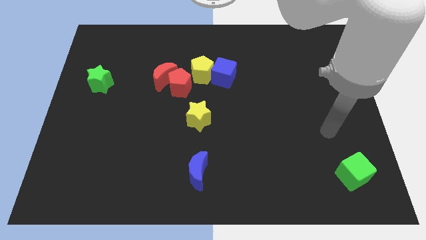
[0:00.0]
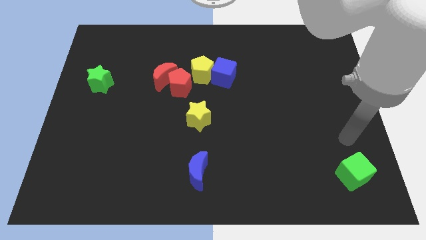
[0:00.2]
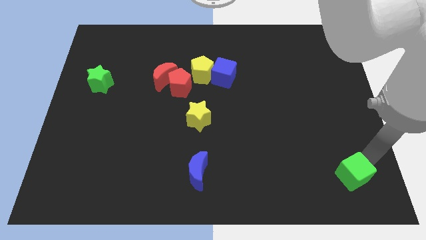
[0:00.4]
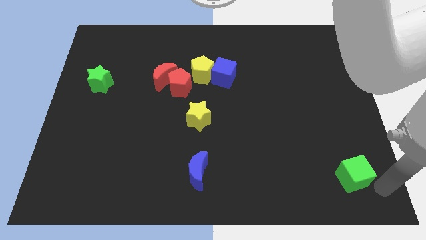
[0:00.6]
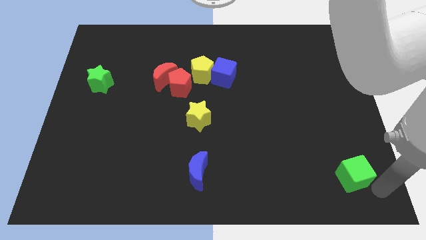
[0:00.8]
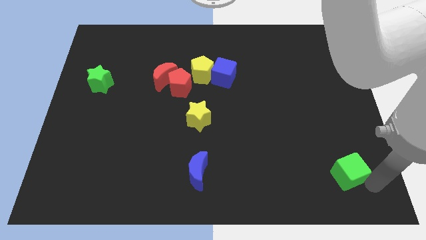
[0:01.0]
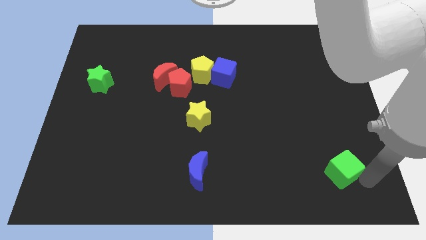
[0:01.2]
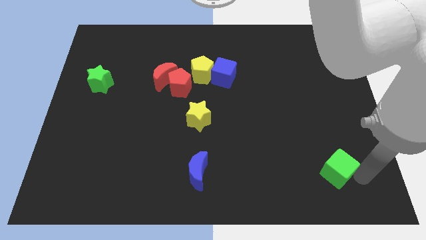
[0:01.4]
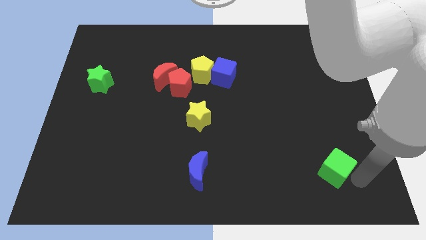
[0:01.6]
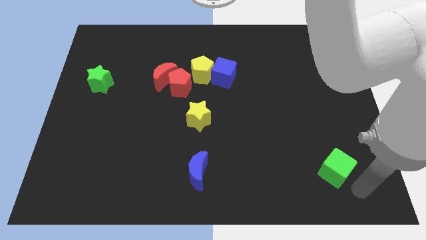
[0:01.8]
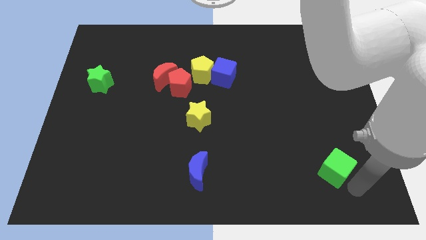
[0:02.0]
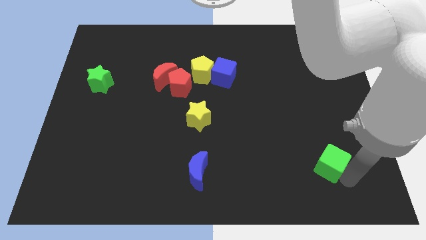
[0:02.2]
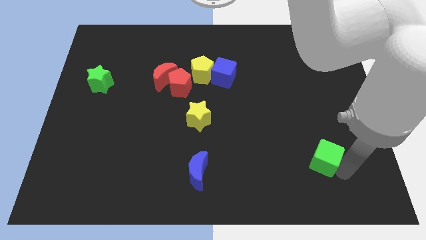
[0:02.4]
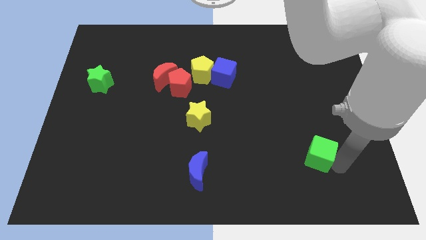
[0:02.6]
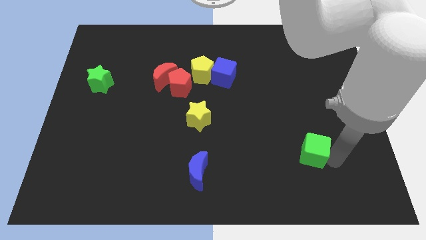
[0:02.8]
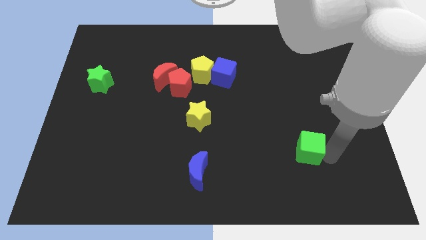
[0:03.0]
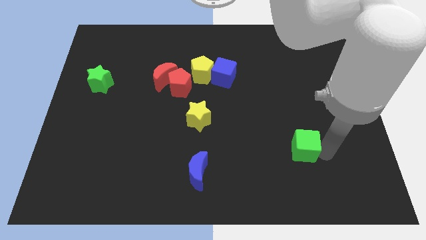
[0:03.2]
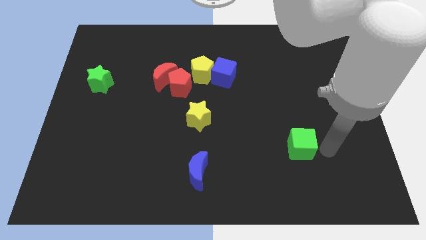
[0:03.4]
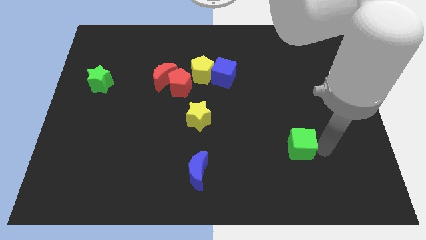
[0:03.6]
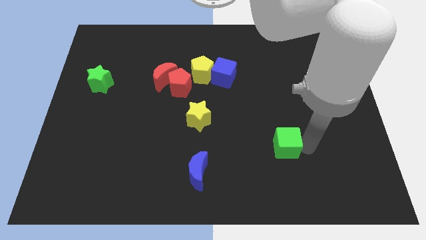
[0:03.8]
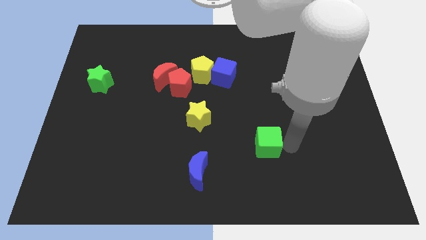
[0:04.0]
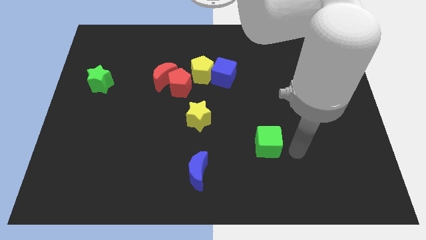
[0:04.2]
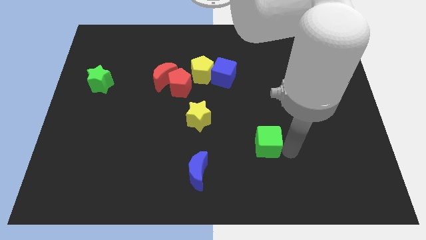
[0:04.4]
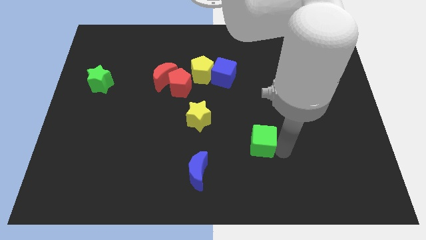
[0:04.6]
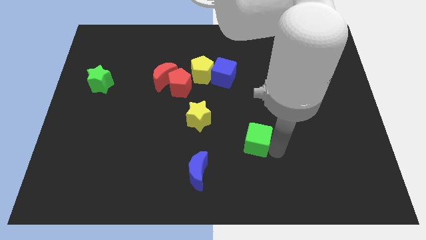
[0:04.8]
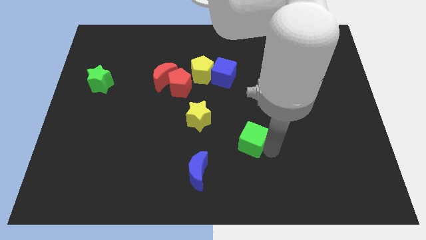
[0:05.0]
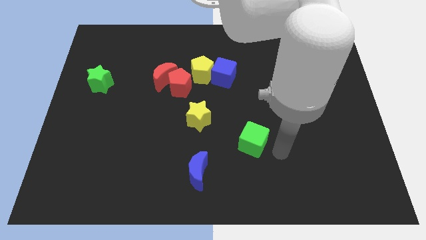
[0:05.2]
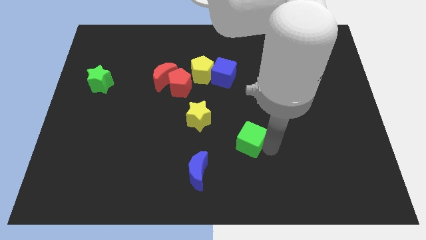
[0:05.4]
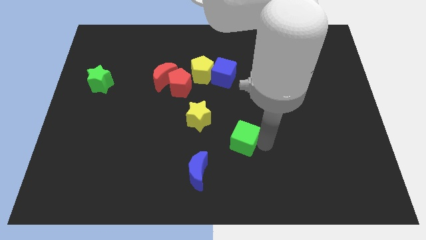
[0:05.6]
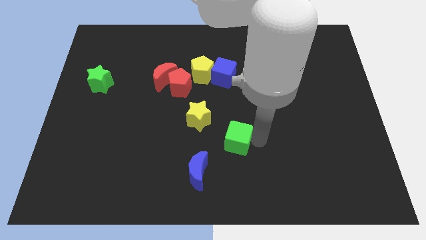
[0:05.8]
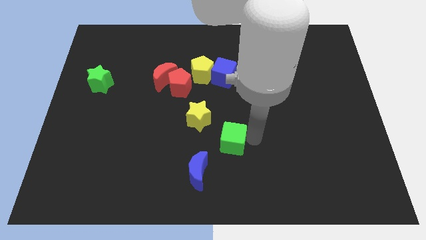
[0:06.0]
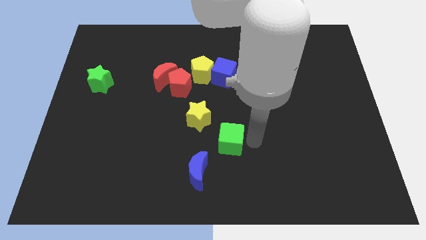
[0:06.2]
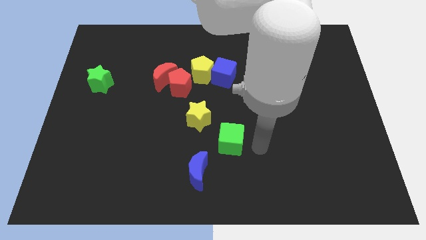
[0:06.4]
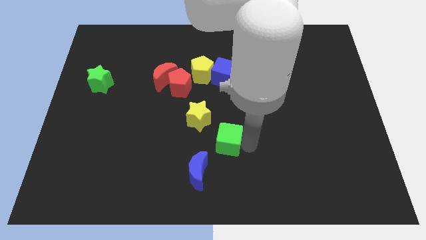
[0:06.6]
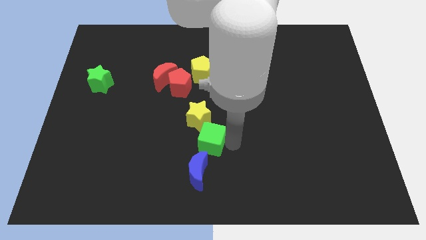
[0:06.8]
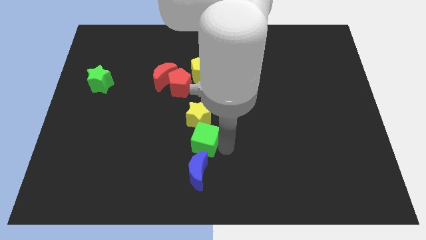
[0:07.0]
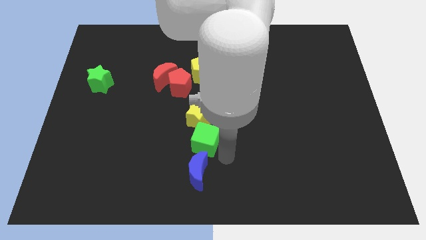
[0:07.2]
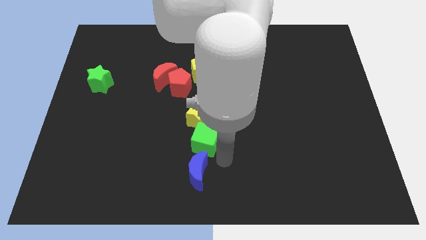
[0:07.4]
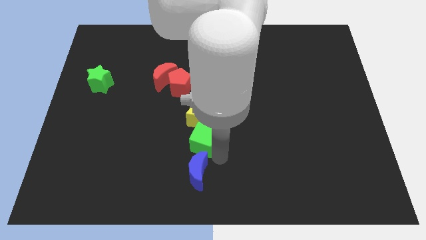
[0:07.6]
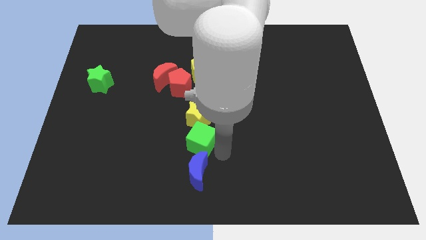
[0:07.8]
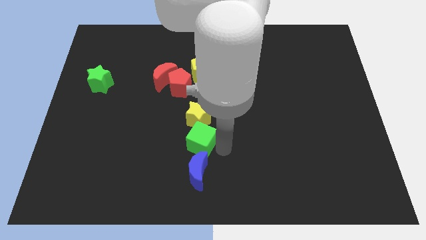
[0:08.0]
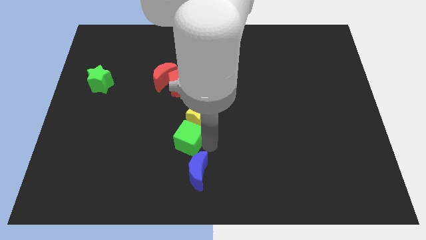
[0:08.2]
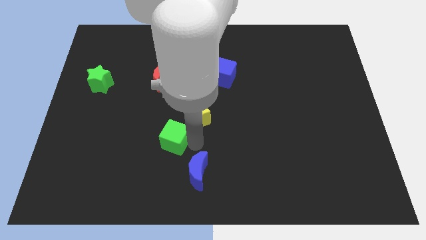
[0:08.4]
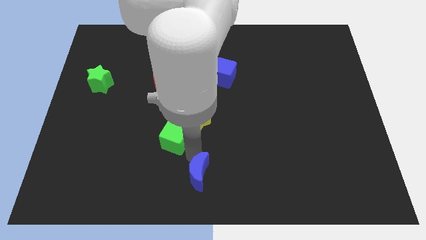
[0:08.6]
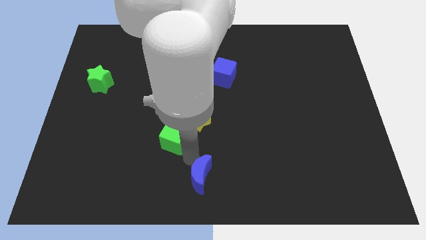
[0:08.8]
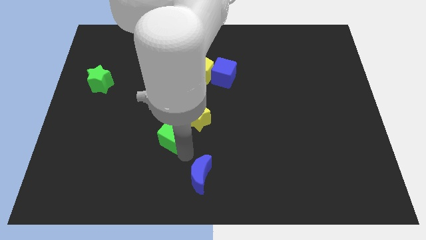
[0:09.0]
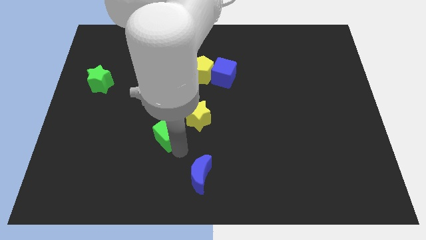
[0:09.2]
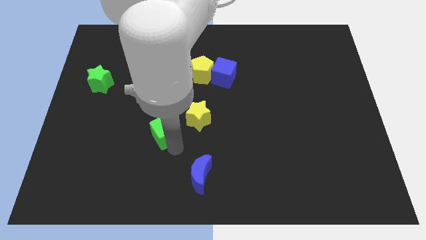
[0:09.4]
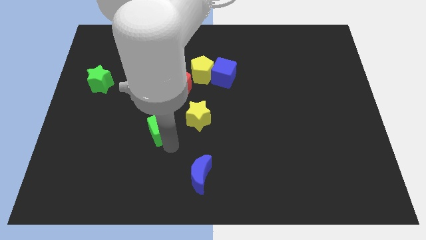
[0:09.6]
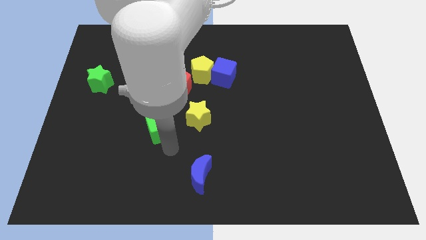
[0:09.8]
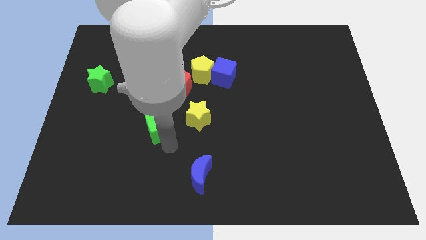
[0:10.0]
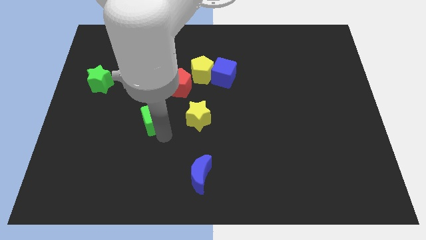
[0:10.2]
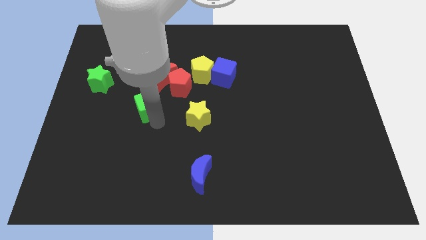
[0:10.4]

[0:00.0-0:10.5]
push the green cube to the bottom left of the red moon

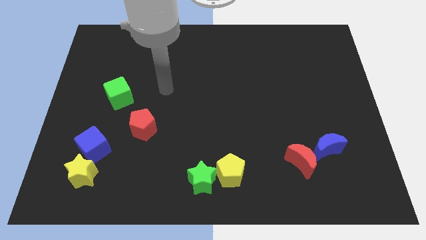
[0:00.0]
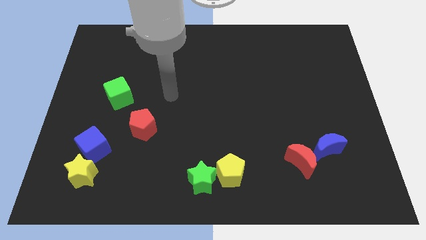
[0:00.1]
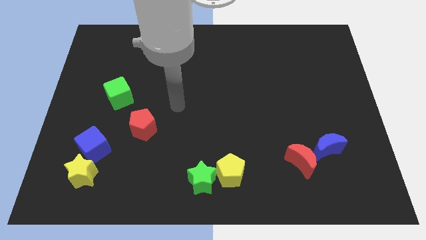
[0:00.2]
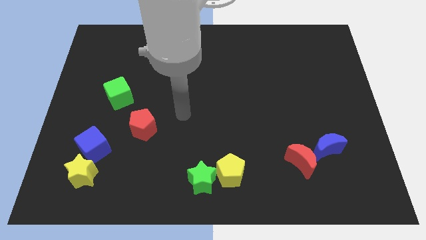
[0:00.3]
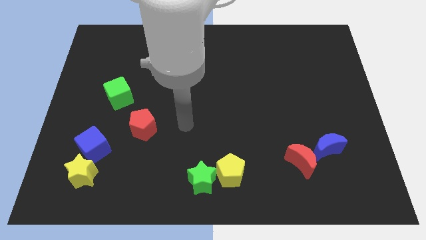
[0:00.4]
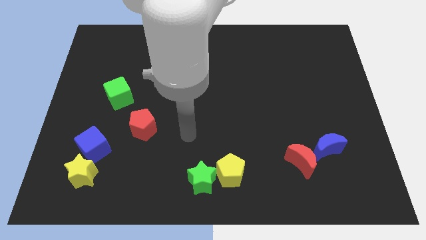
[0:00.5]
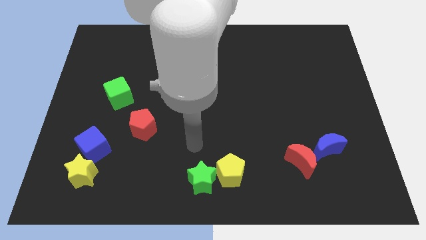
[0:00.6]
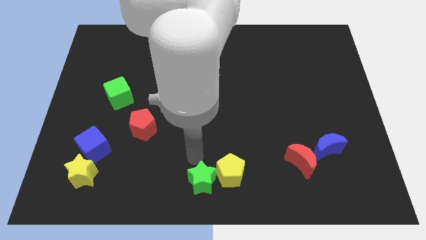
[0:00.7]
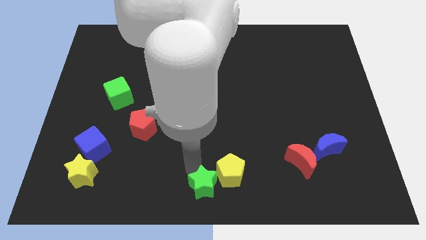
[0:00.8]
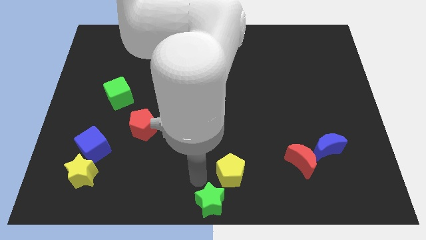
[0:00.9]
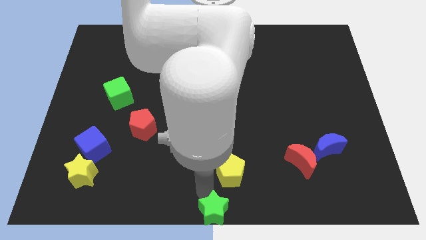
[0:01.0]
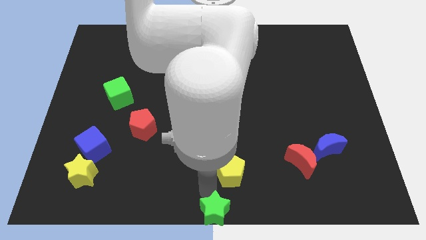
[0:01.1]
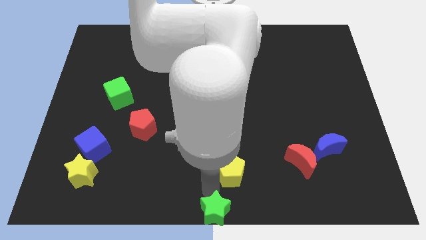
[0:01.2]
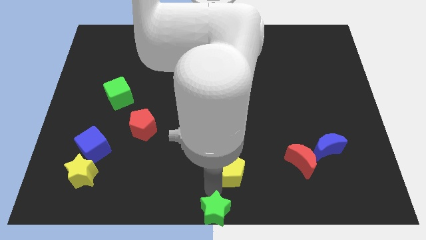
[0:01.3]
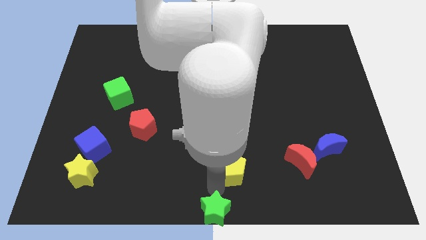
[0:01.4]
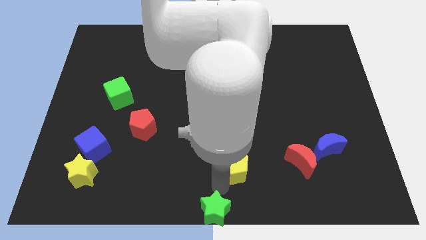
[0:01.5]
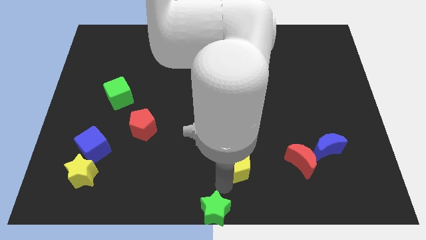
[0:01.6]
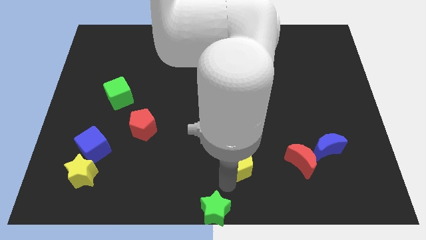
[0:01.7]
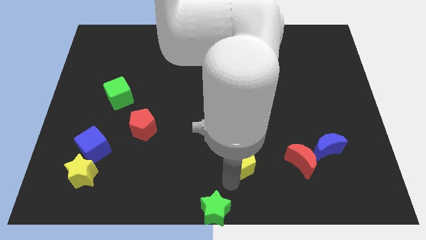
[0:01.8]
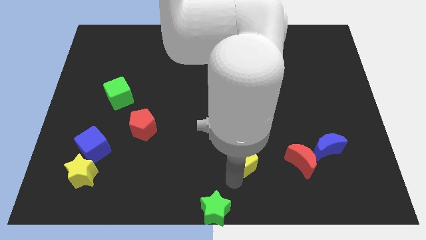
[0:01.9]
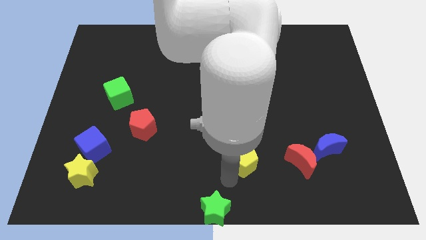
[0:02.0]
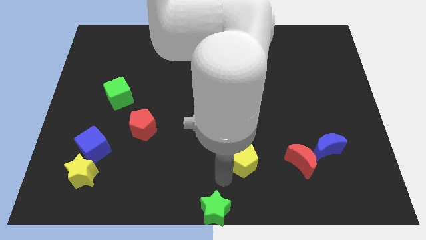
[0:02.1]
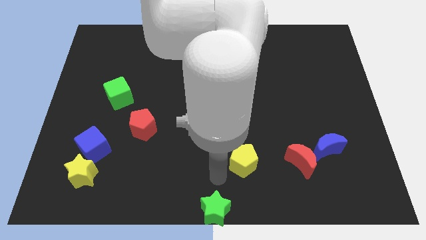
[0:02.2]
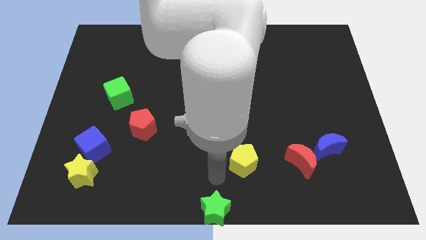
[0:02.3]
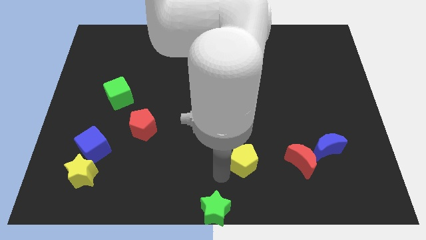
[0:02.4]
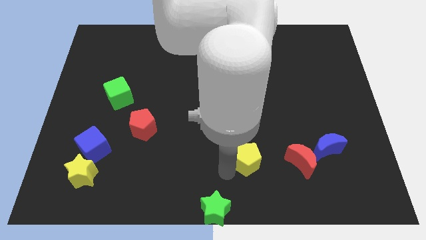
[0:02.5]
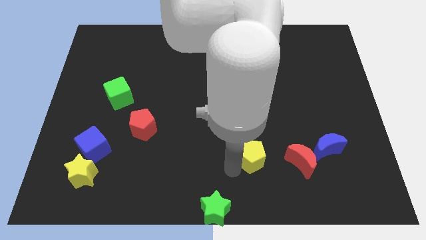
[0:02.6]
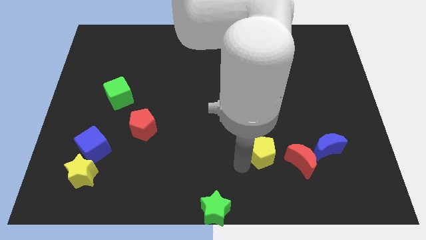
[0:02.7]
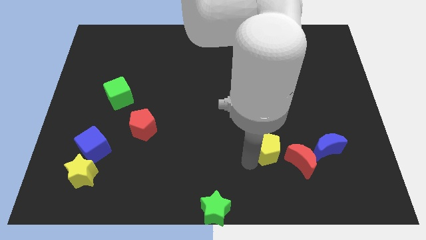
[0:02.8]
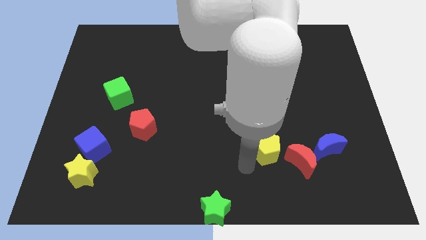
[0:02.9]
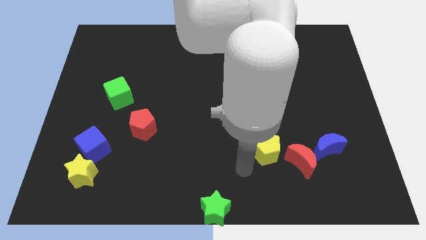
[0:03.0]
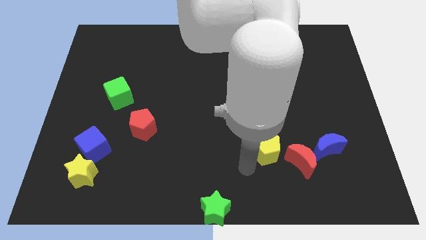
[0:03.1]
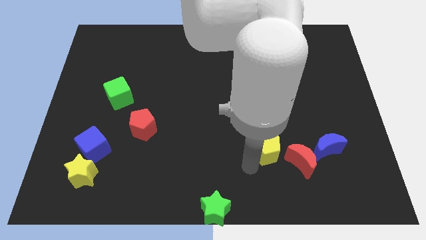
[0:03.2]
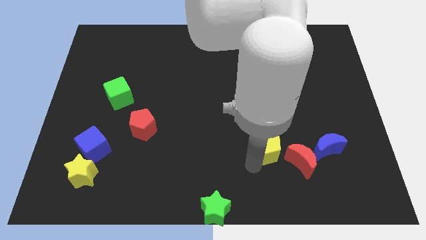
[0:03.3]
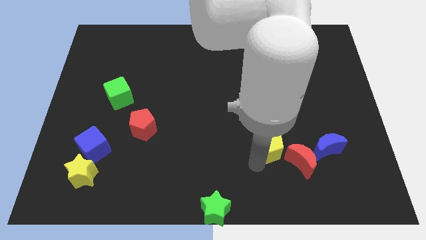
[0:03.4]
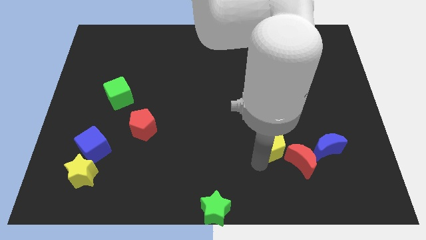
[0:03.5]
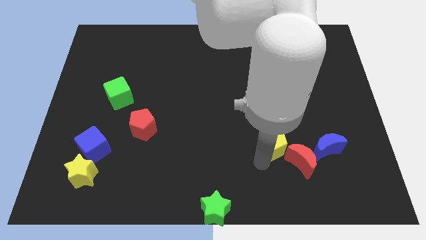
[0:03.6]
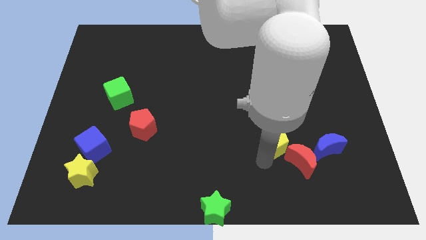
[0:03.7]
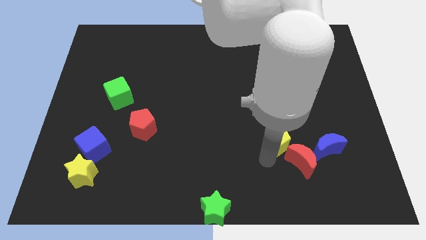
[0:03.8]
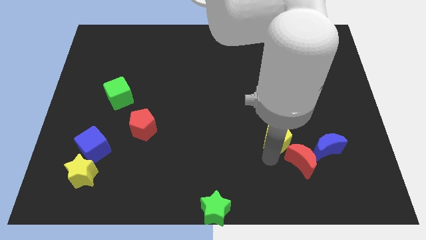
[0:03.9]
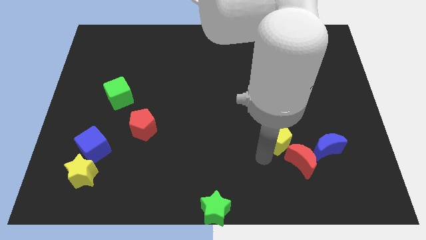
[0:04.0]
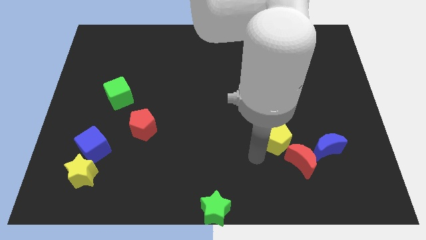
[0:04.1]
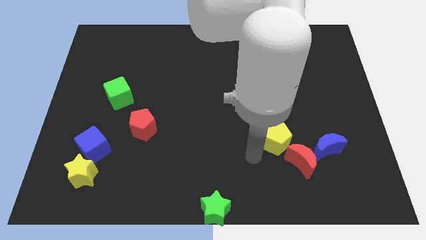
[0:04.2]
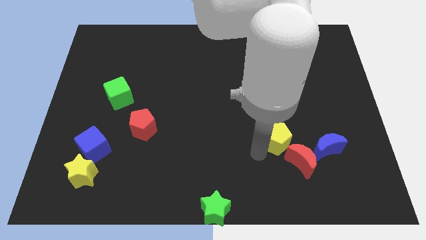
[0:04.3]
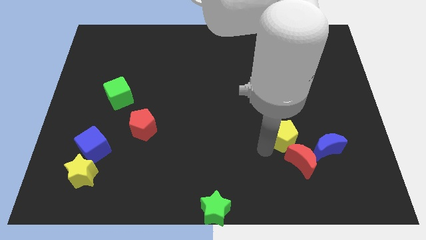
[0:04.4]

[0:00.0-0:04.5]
move the yellow pentagon to the top left side of the blue moon
